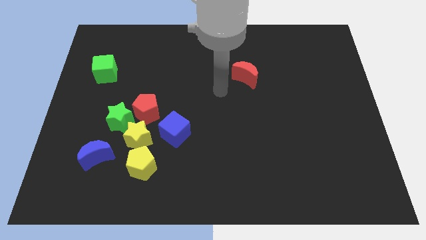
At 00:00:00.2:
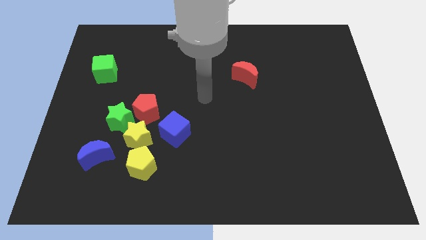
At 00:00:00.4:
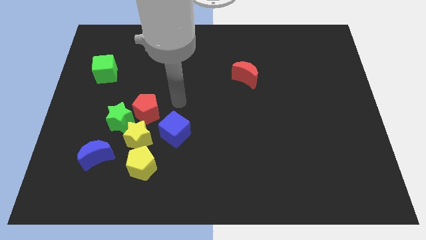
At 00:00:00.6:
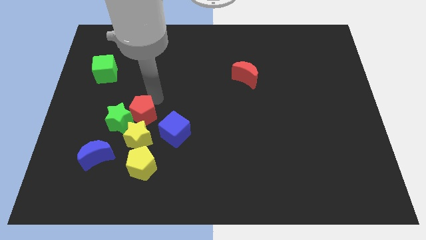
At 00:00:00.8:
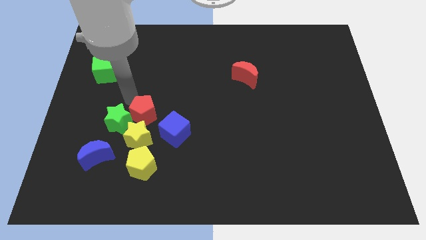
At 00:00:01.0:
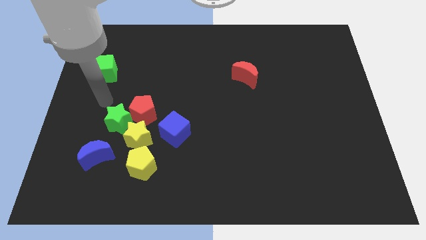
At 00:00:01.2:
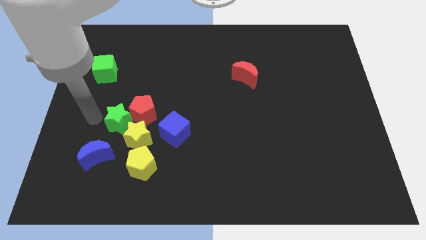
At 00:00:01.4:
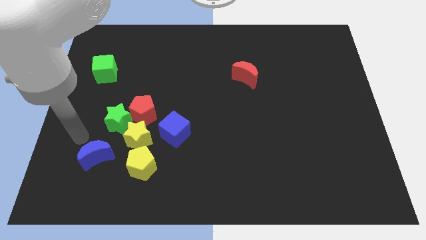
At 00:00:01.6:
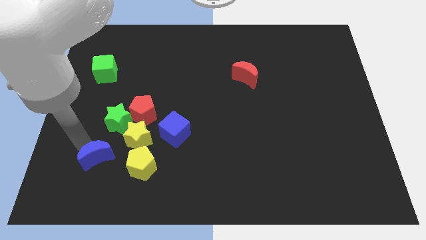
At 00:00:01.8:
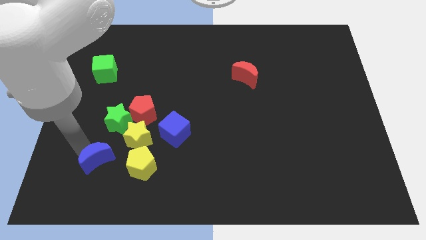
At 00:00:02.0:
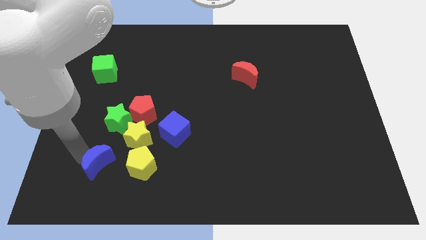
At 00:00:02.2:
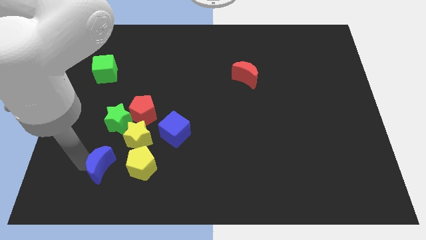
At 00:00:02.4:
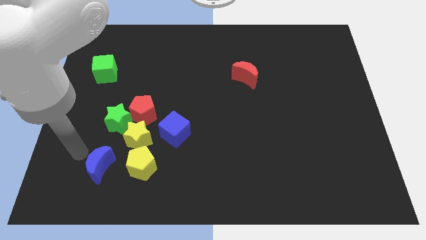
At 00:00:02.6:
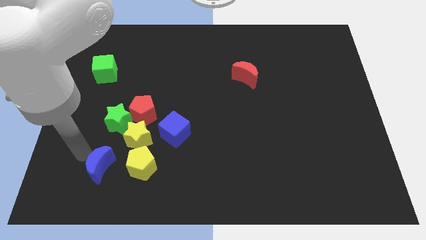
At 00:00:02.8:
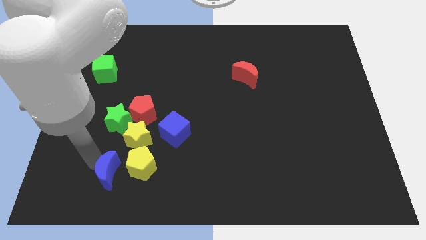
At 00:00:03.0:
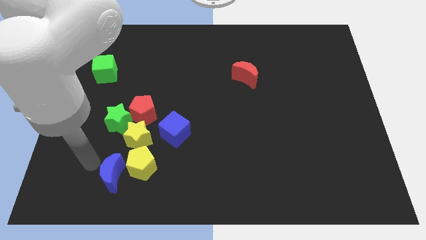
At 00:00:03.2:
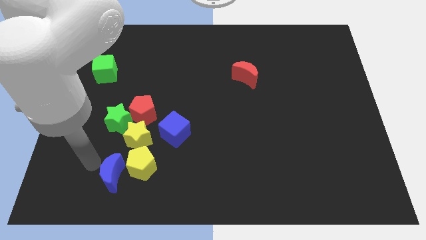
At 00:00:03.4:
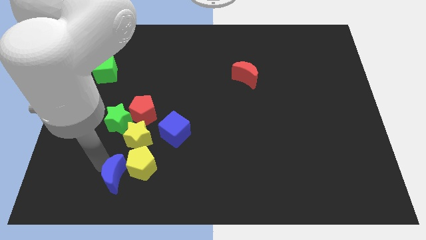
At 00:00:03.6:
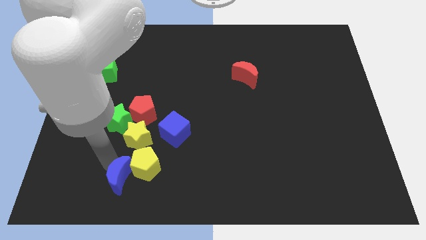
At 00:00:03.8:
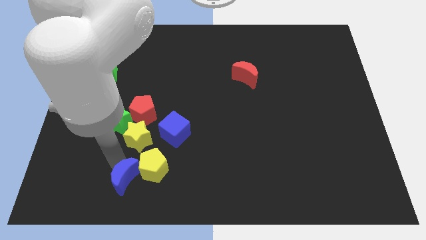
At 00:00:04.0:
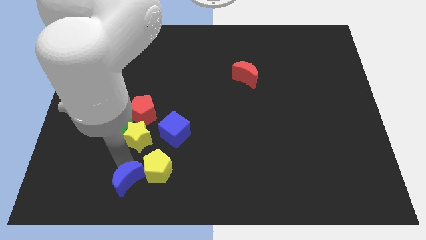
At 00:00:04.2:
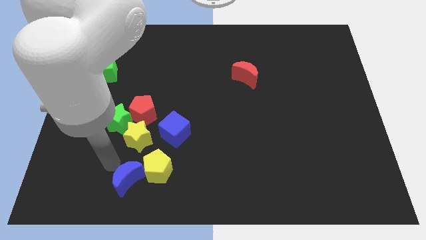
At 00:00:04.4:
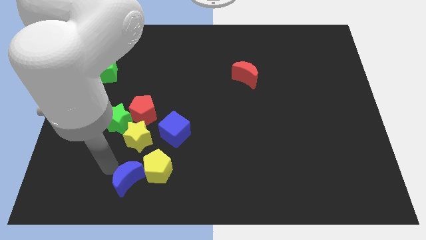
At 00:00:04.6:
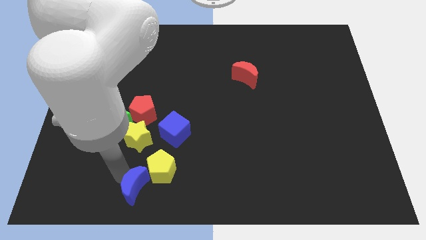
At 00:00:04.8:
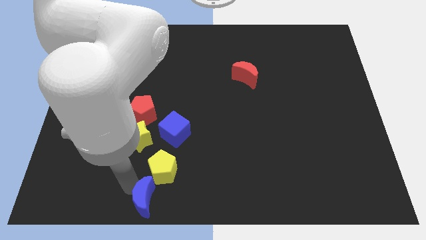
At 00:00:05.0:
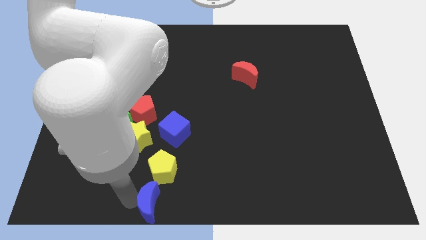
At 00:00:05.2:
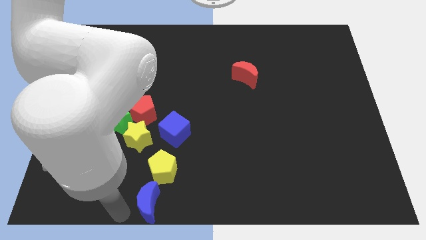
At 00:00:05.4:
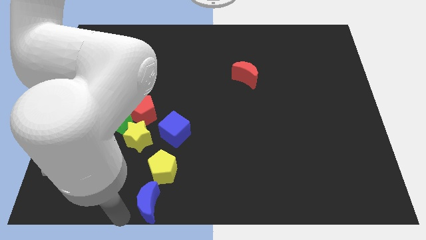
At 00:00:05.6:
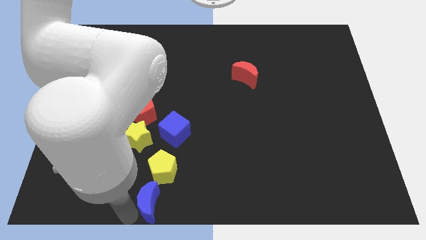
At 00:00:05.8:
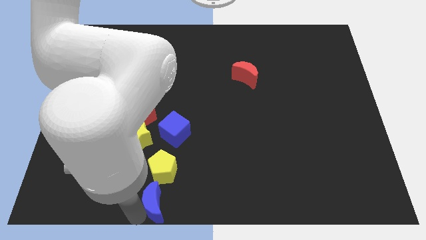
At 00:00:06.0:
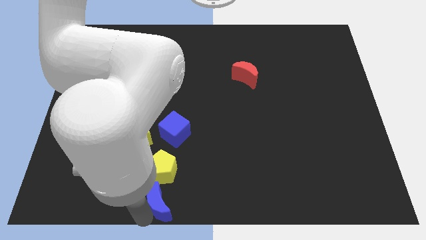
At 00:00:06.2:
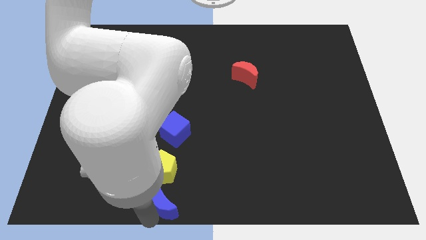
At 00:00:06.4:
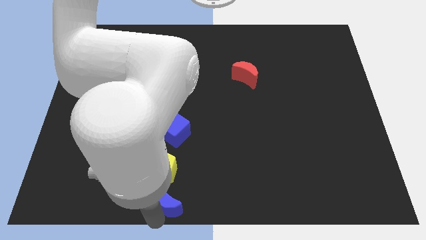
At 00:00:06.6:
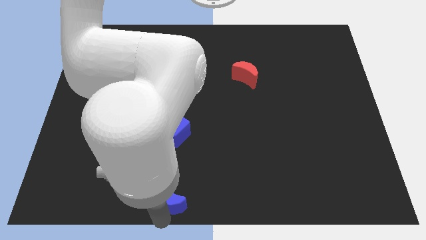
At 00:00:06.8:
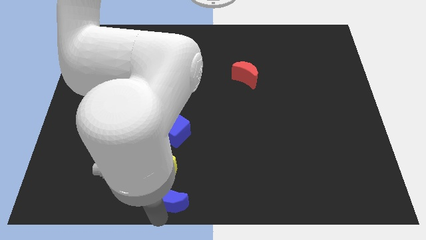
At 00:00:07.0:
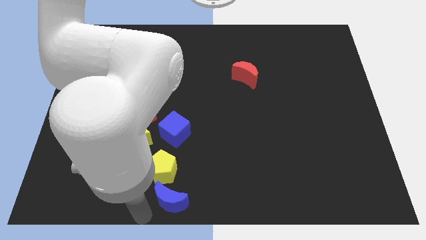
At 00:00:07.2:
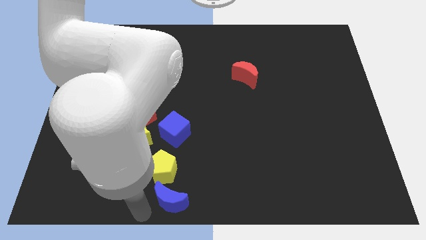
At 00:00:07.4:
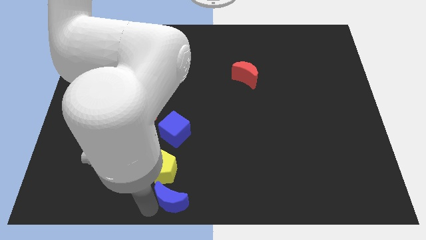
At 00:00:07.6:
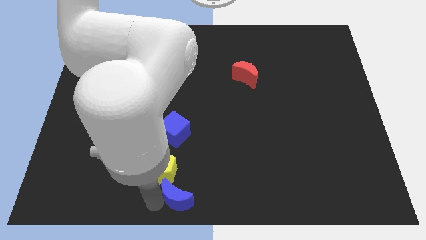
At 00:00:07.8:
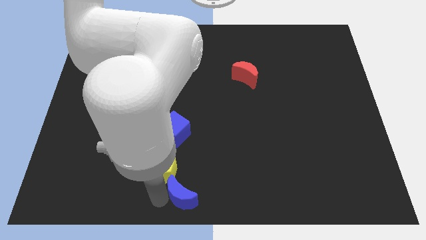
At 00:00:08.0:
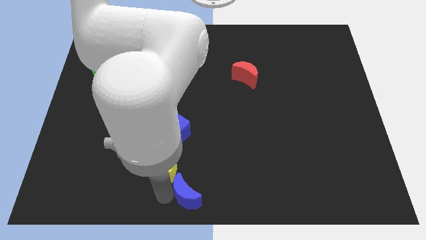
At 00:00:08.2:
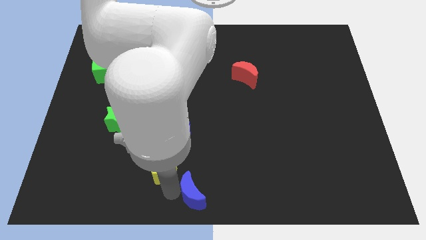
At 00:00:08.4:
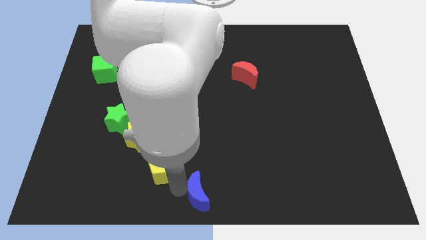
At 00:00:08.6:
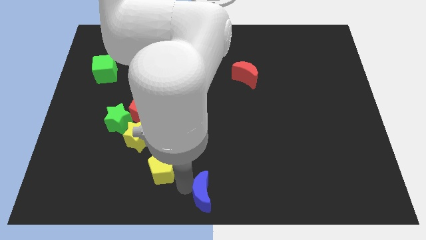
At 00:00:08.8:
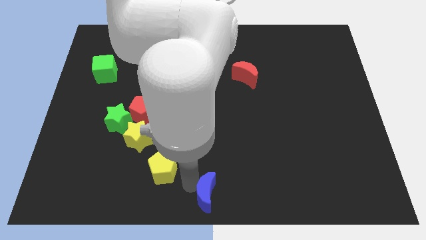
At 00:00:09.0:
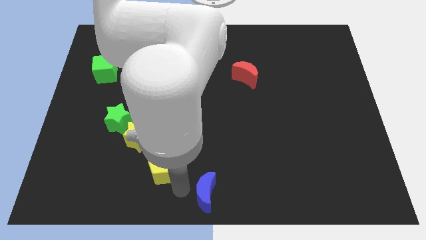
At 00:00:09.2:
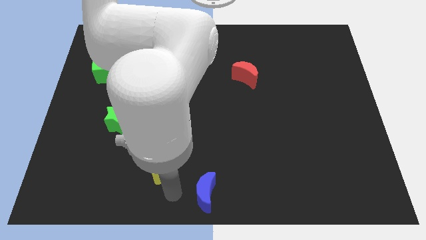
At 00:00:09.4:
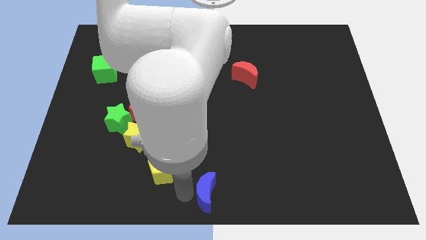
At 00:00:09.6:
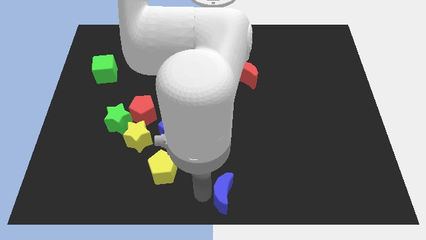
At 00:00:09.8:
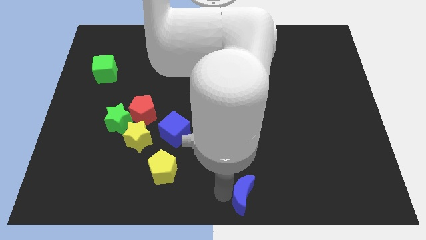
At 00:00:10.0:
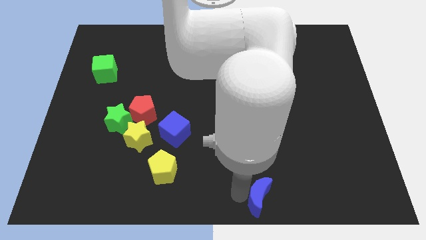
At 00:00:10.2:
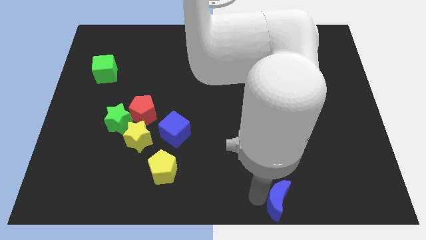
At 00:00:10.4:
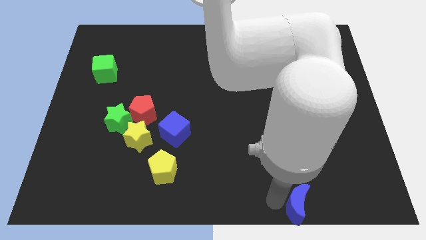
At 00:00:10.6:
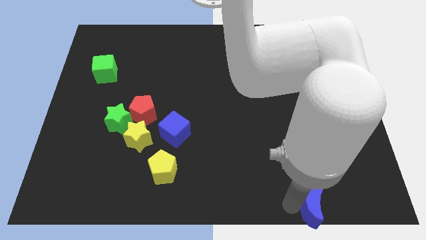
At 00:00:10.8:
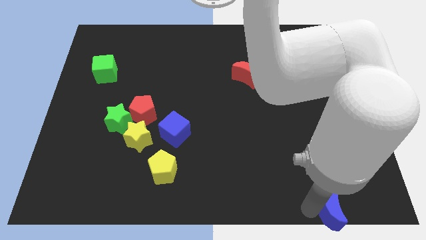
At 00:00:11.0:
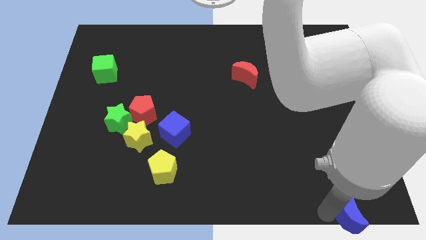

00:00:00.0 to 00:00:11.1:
push the blue moon to the lower right corner

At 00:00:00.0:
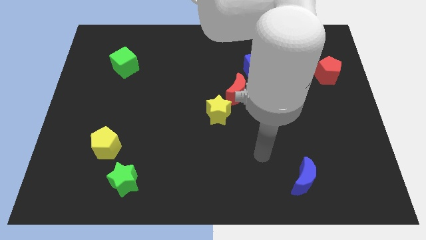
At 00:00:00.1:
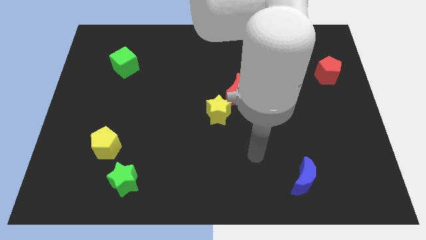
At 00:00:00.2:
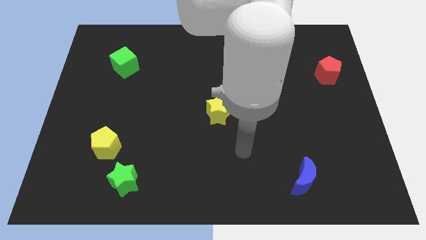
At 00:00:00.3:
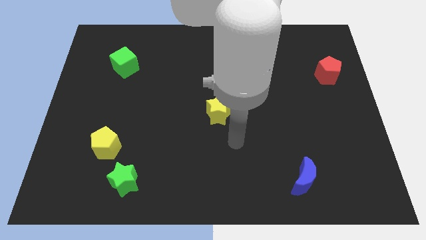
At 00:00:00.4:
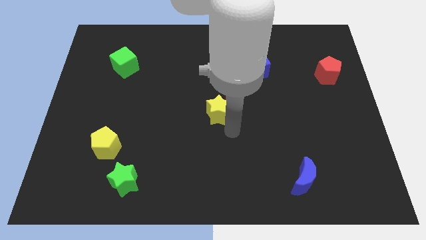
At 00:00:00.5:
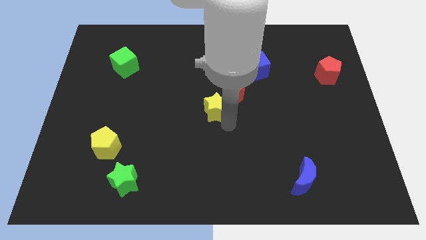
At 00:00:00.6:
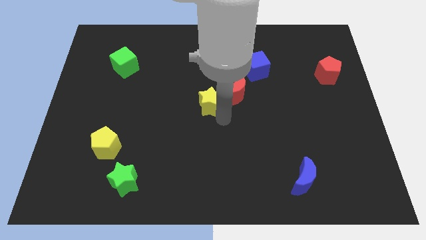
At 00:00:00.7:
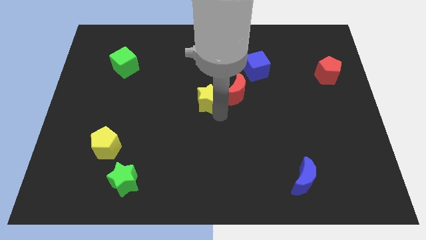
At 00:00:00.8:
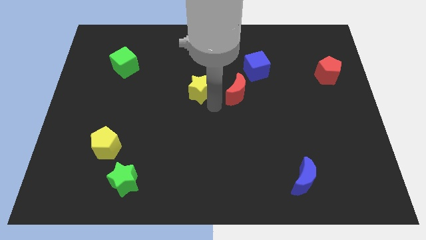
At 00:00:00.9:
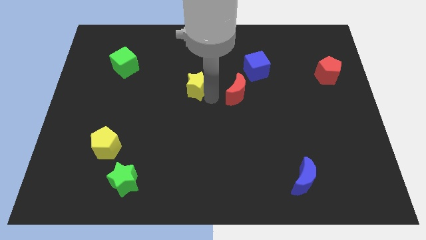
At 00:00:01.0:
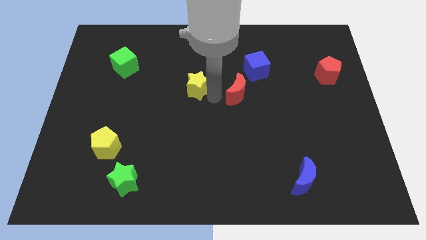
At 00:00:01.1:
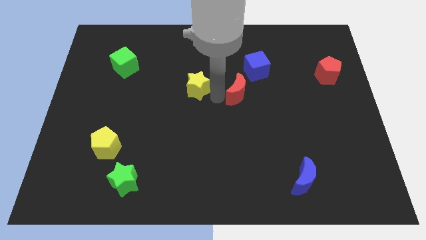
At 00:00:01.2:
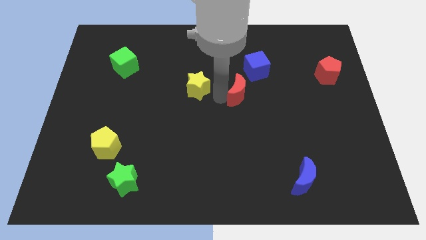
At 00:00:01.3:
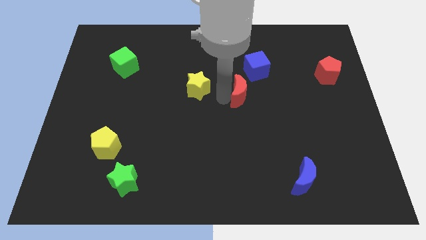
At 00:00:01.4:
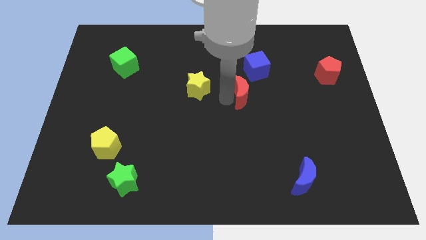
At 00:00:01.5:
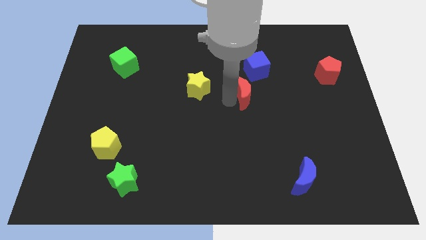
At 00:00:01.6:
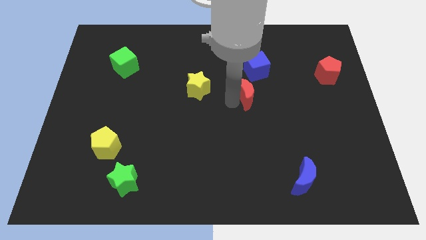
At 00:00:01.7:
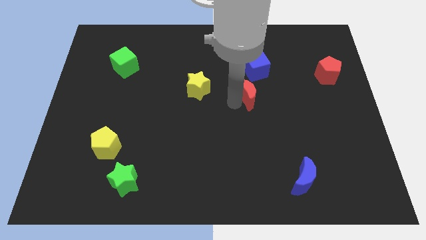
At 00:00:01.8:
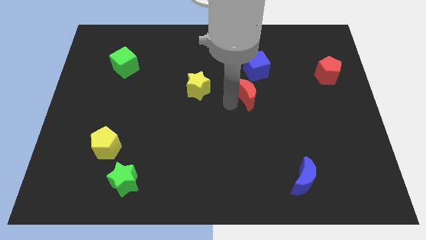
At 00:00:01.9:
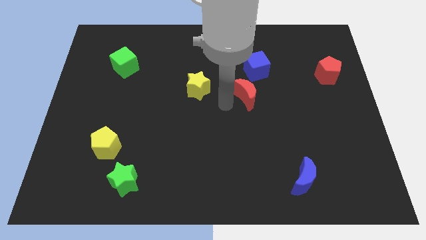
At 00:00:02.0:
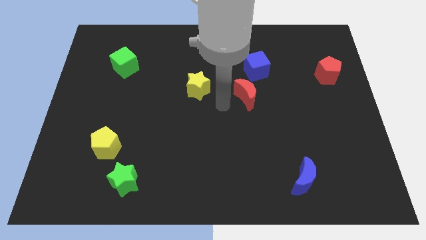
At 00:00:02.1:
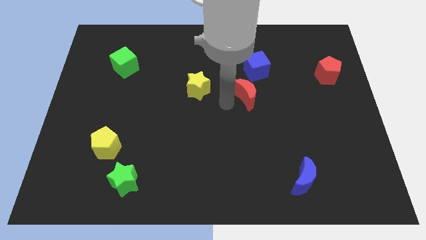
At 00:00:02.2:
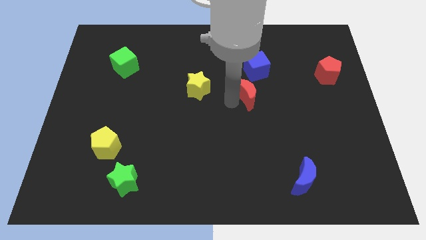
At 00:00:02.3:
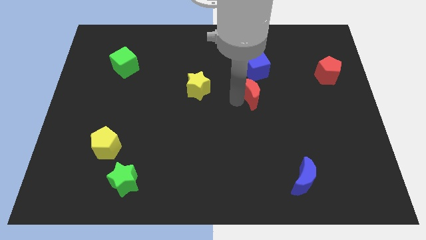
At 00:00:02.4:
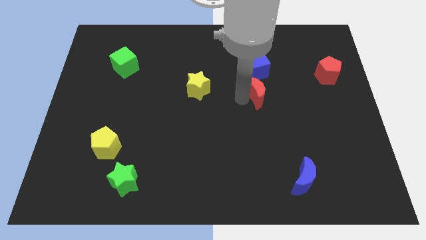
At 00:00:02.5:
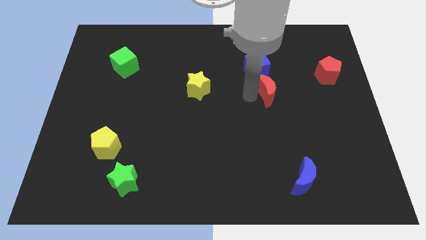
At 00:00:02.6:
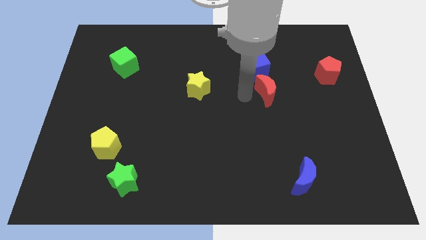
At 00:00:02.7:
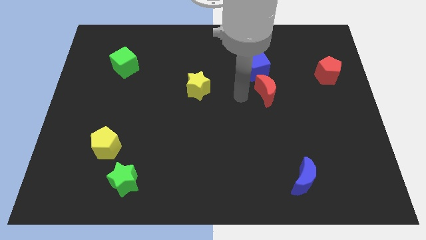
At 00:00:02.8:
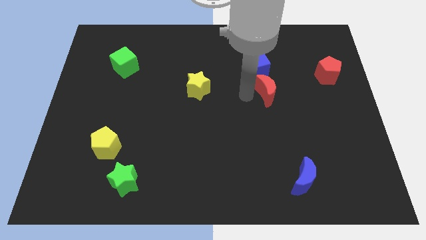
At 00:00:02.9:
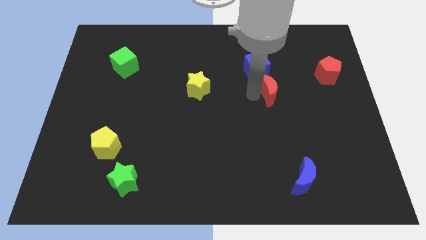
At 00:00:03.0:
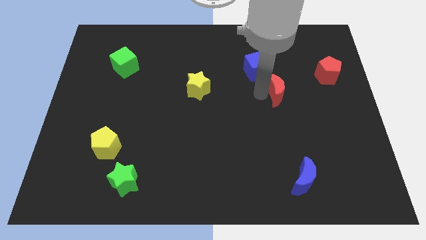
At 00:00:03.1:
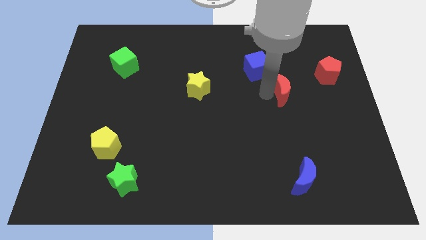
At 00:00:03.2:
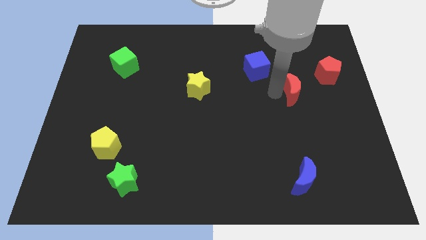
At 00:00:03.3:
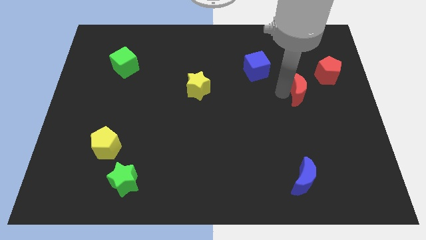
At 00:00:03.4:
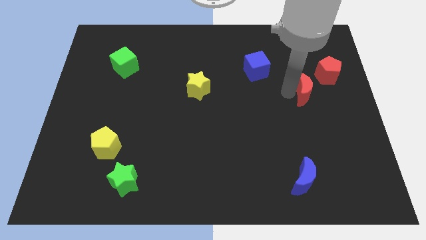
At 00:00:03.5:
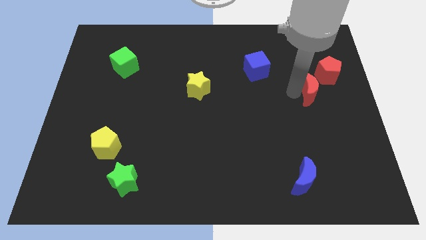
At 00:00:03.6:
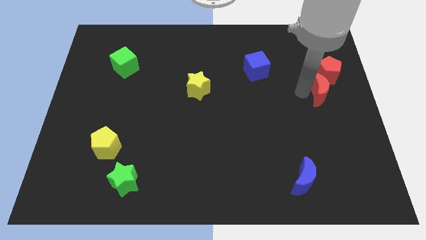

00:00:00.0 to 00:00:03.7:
slide the red moon to the right side
